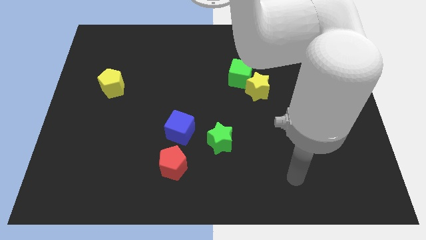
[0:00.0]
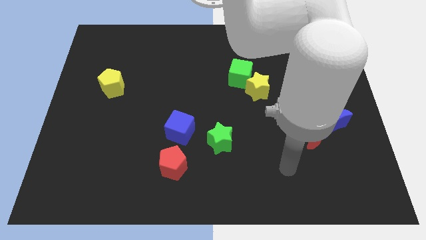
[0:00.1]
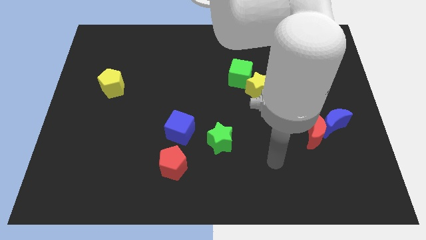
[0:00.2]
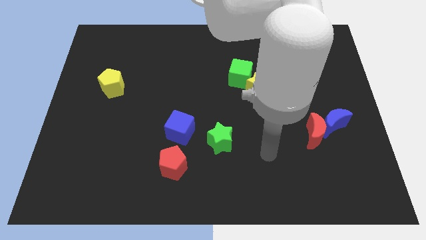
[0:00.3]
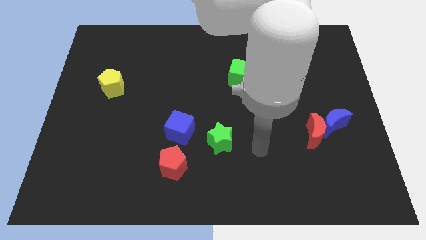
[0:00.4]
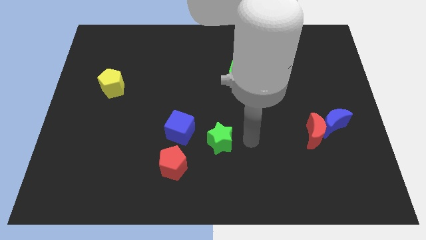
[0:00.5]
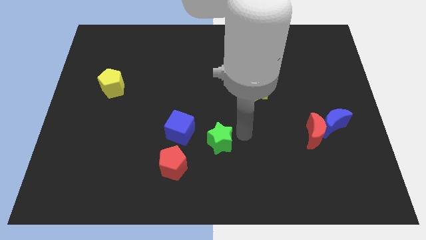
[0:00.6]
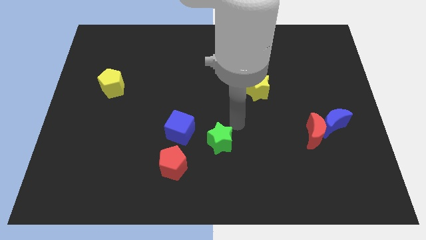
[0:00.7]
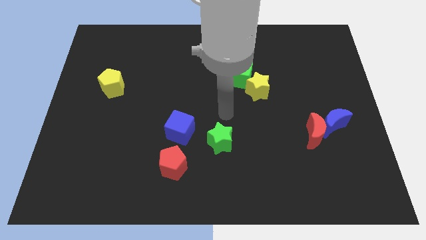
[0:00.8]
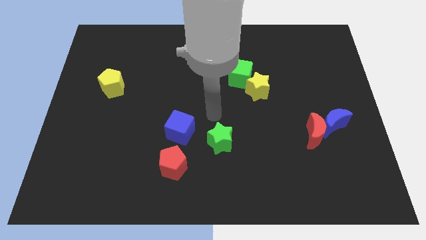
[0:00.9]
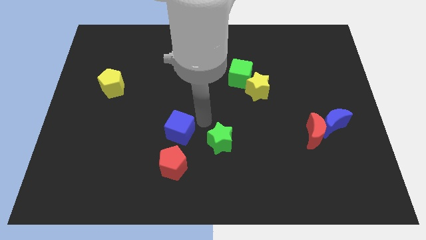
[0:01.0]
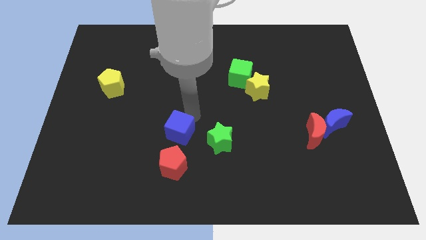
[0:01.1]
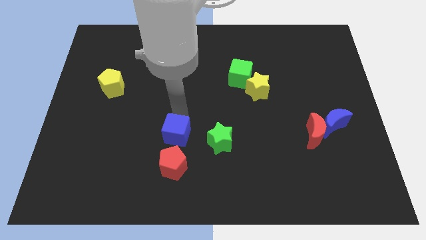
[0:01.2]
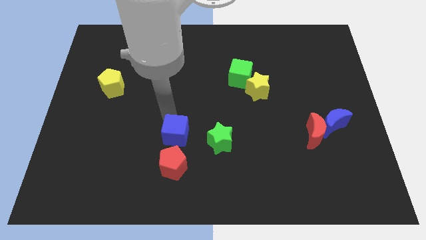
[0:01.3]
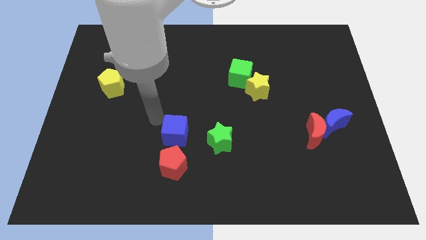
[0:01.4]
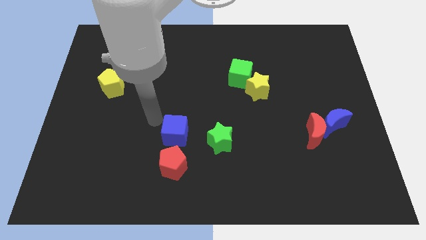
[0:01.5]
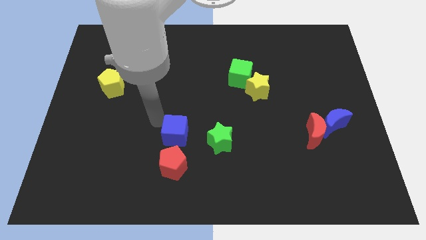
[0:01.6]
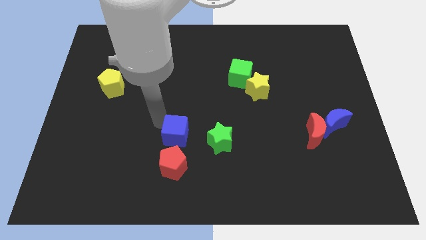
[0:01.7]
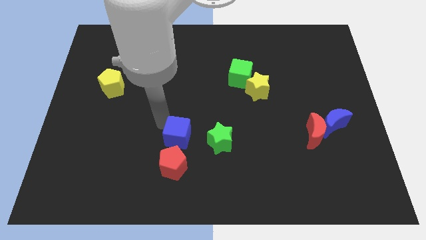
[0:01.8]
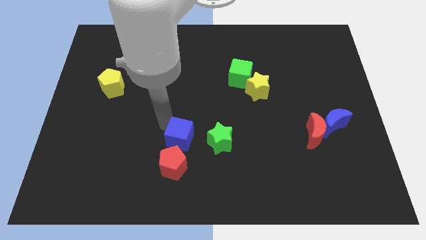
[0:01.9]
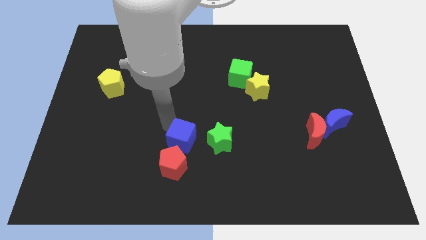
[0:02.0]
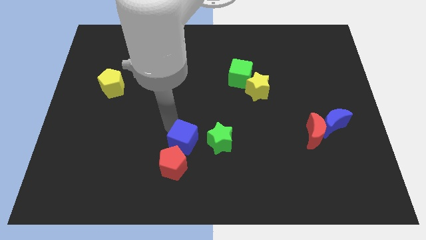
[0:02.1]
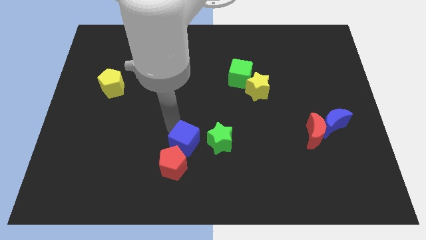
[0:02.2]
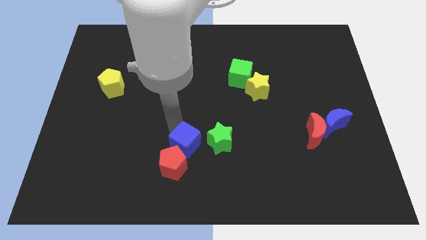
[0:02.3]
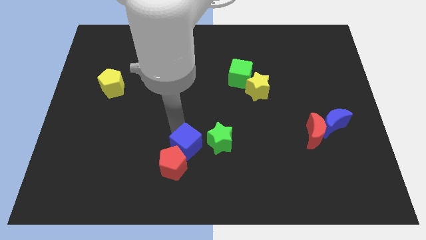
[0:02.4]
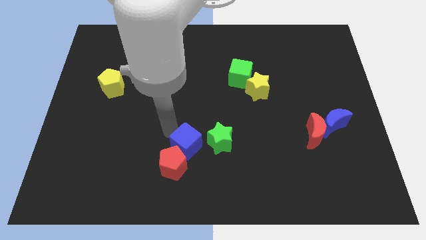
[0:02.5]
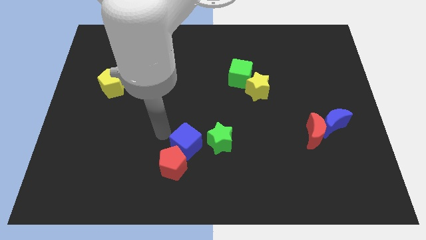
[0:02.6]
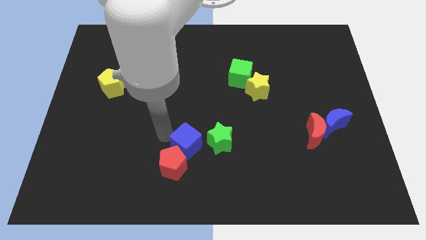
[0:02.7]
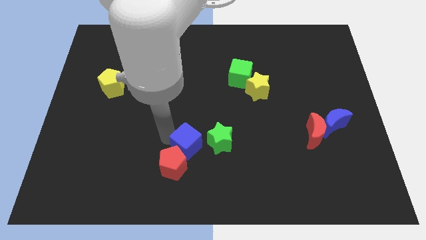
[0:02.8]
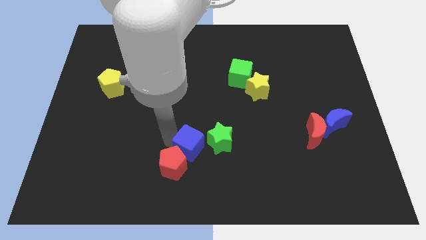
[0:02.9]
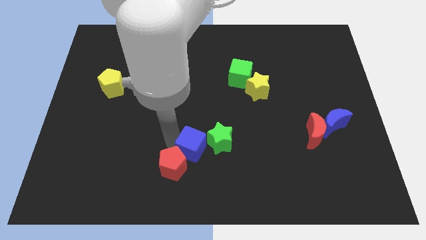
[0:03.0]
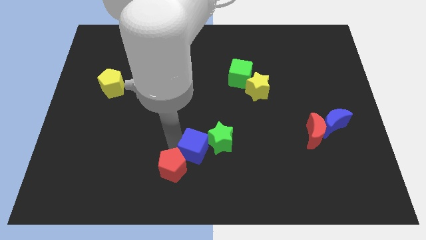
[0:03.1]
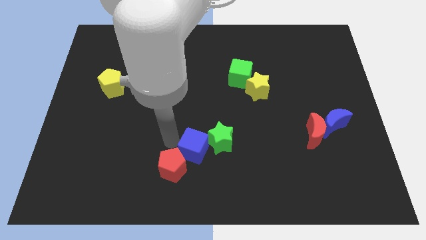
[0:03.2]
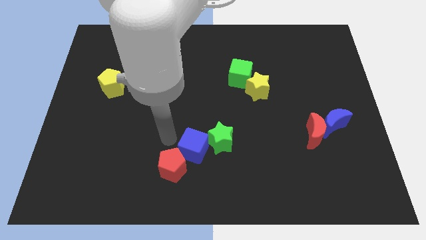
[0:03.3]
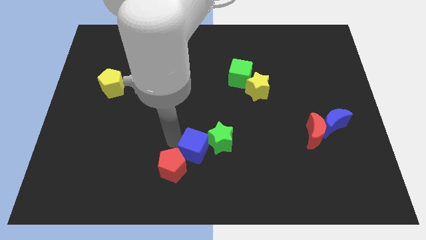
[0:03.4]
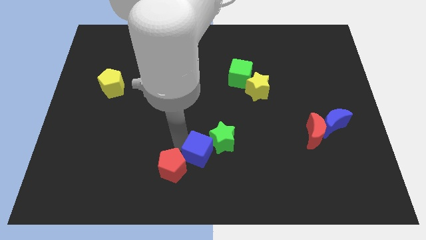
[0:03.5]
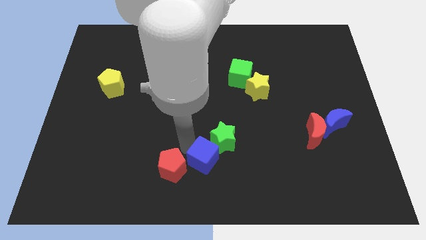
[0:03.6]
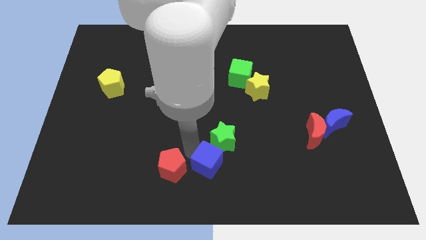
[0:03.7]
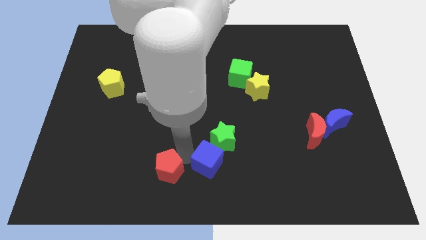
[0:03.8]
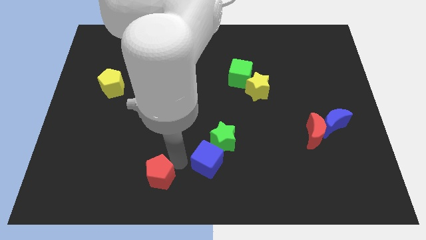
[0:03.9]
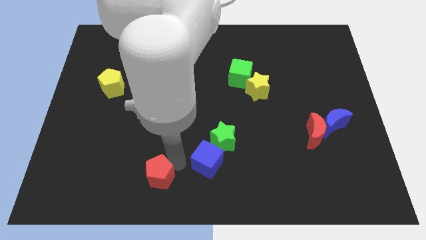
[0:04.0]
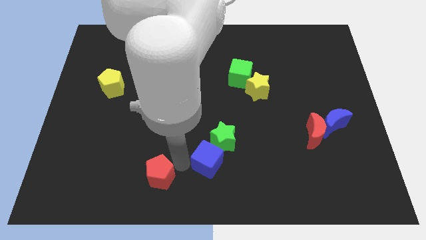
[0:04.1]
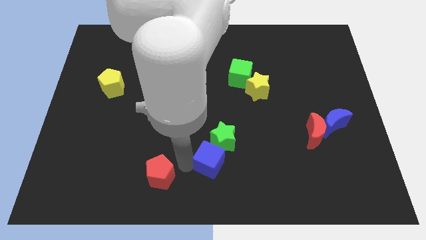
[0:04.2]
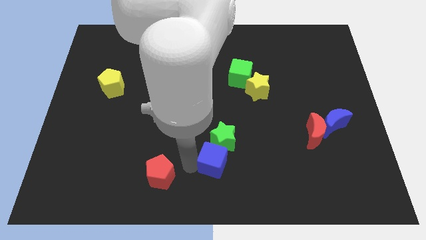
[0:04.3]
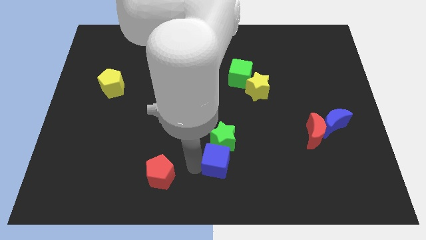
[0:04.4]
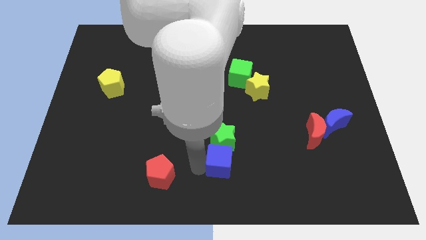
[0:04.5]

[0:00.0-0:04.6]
slide the blue cube to the bottom right of the green star

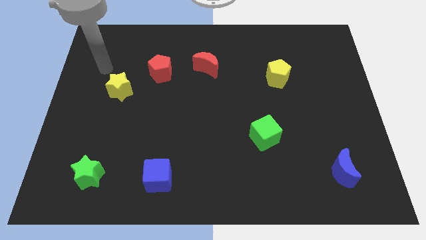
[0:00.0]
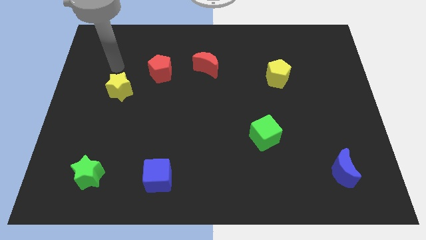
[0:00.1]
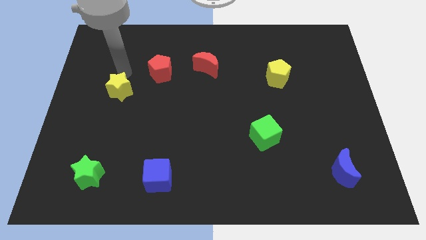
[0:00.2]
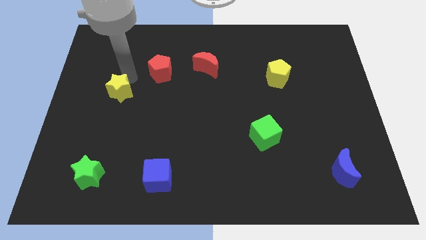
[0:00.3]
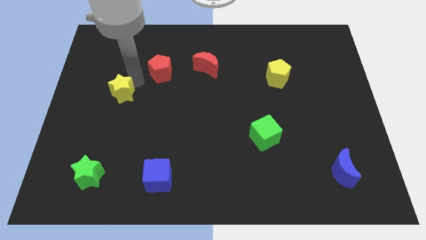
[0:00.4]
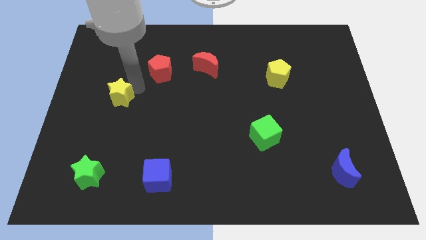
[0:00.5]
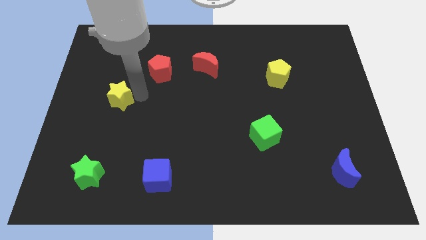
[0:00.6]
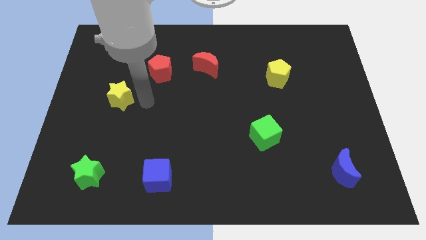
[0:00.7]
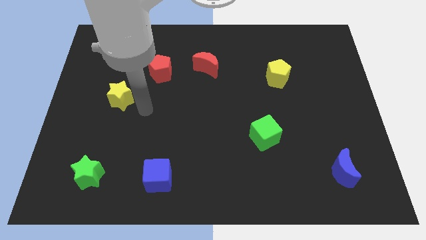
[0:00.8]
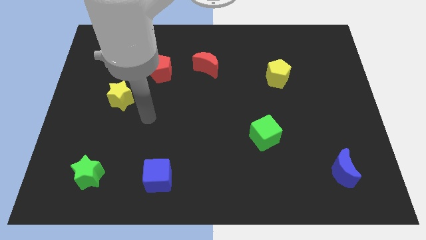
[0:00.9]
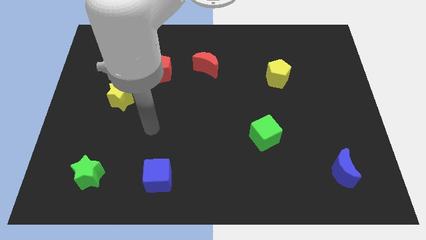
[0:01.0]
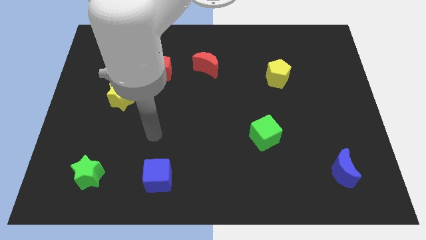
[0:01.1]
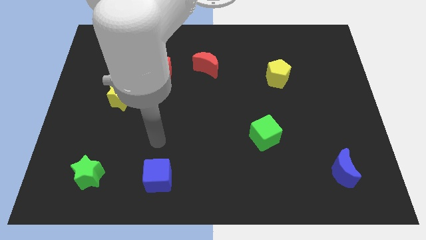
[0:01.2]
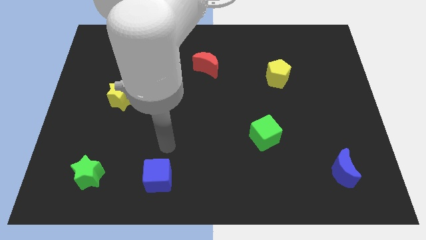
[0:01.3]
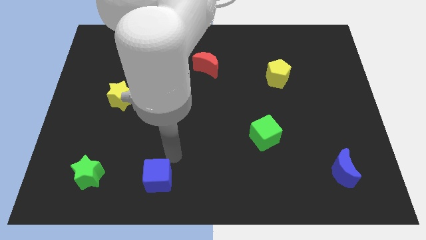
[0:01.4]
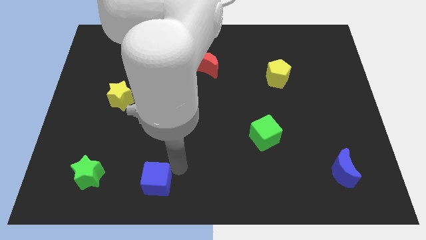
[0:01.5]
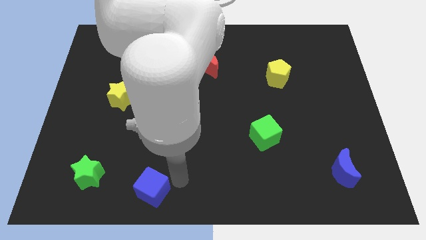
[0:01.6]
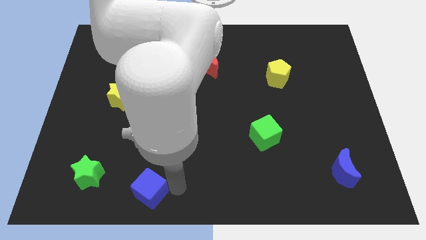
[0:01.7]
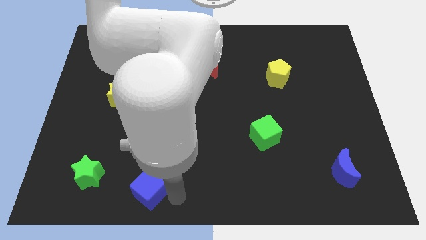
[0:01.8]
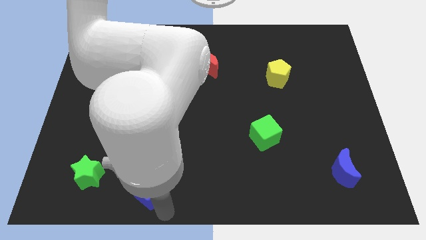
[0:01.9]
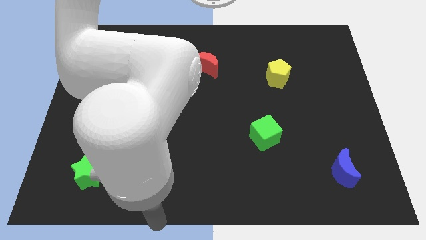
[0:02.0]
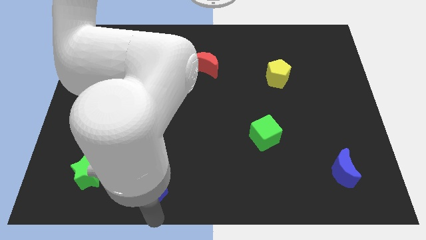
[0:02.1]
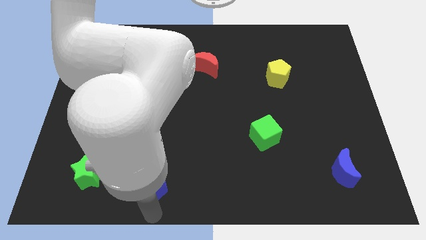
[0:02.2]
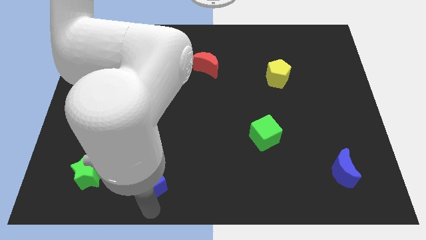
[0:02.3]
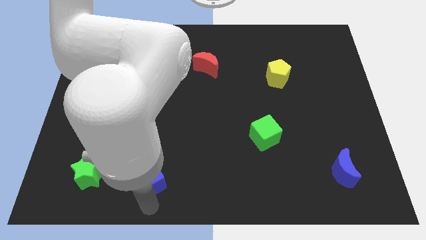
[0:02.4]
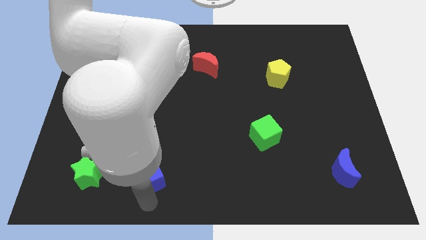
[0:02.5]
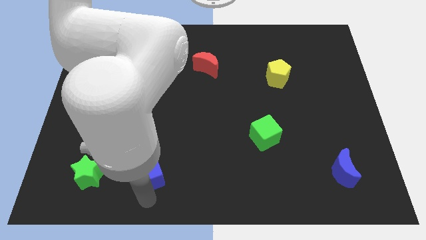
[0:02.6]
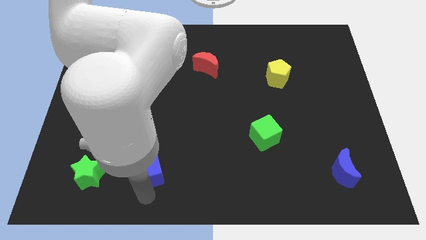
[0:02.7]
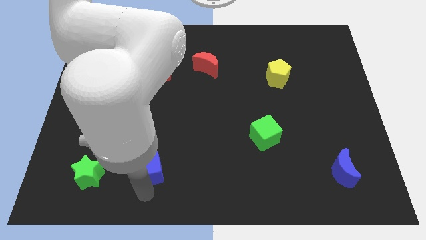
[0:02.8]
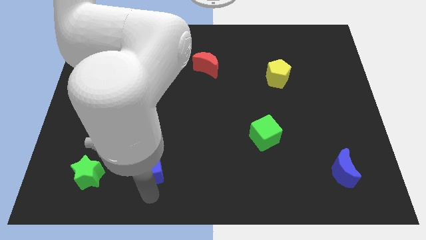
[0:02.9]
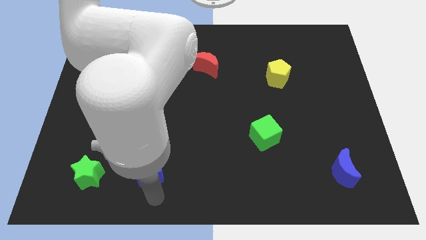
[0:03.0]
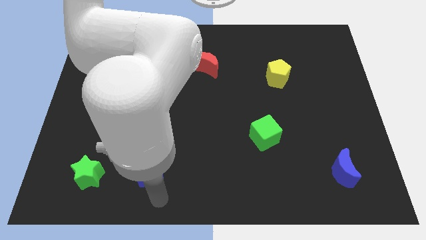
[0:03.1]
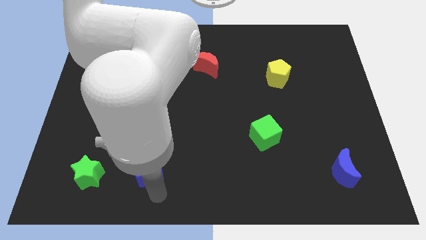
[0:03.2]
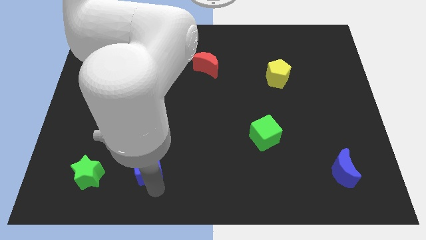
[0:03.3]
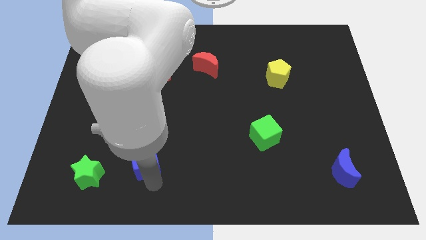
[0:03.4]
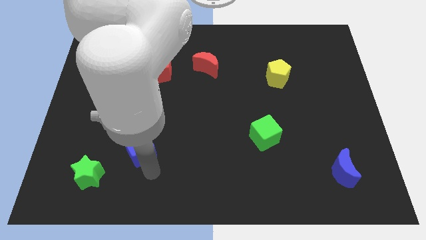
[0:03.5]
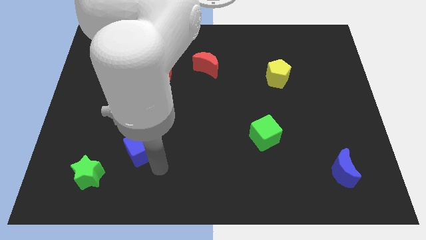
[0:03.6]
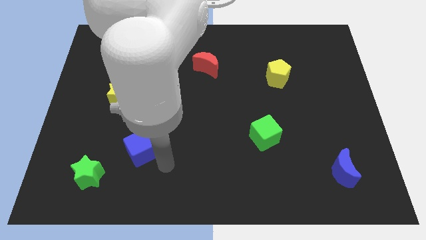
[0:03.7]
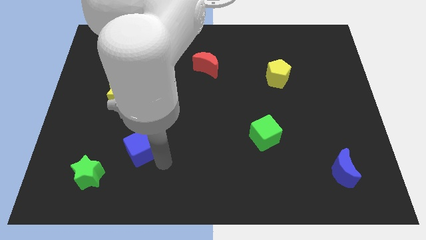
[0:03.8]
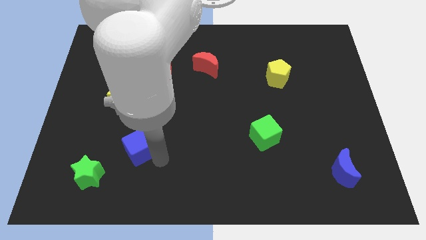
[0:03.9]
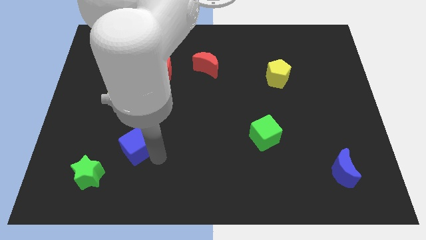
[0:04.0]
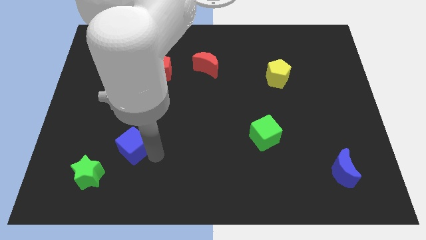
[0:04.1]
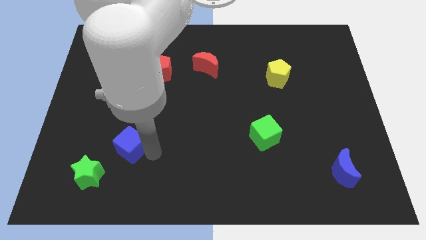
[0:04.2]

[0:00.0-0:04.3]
move the blue cube to the bottom of the yellow star
